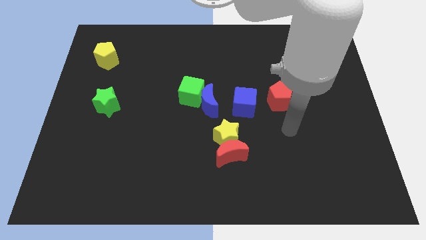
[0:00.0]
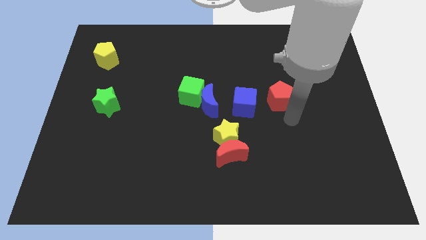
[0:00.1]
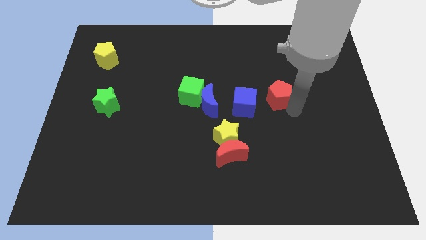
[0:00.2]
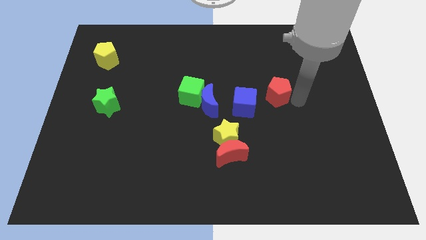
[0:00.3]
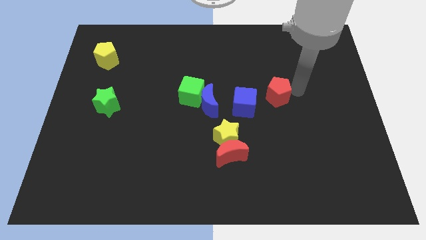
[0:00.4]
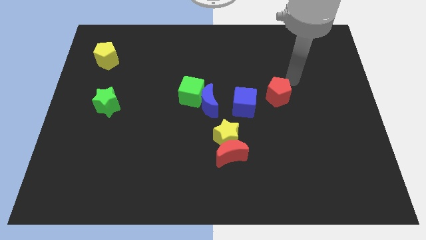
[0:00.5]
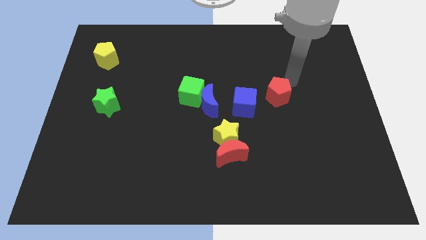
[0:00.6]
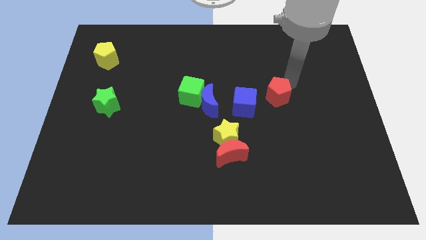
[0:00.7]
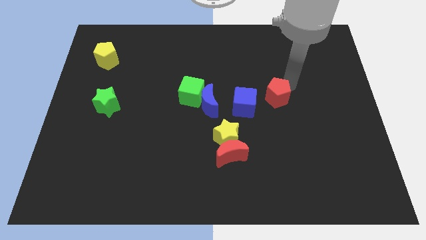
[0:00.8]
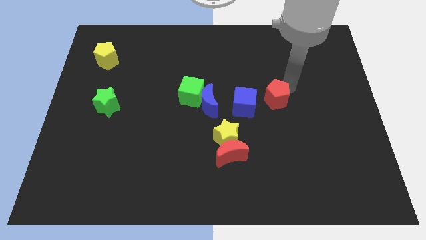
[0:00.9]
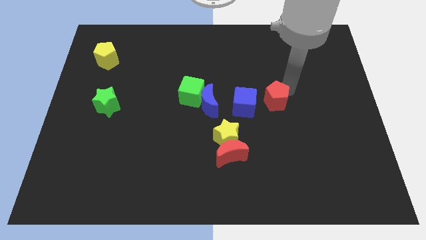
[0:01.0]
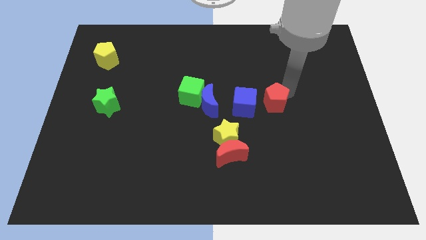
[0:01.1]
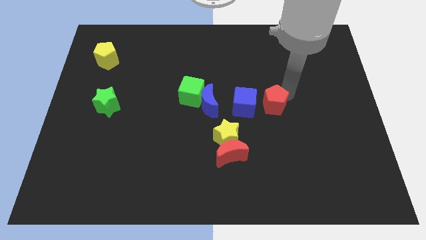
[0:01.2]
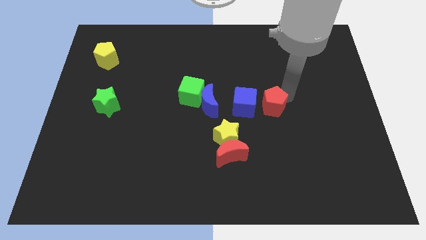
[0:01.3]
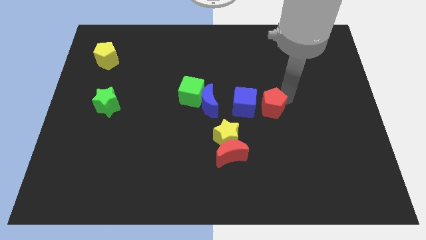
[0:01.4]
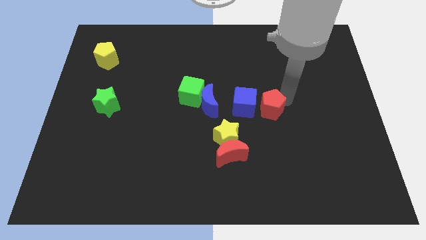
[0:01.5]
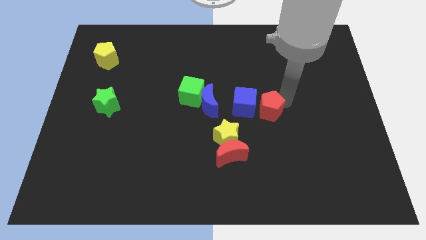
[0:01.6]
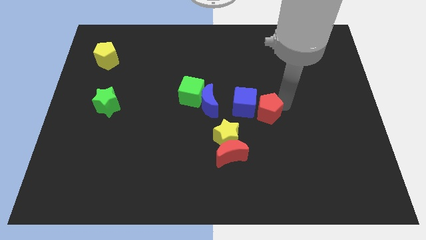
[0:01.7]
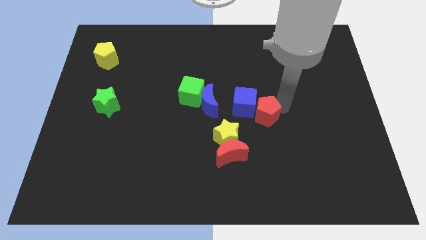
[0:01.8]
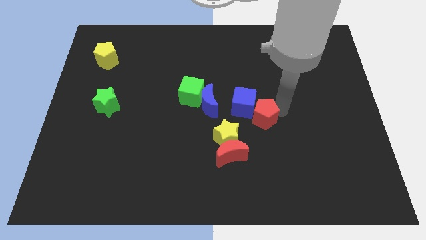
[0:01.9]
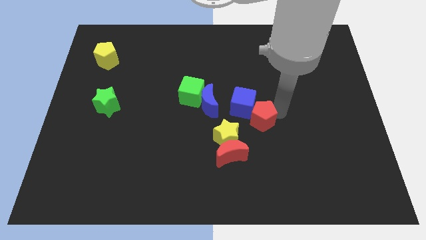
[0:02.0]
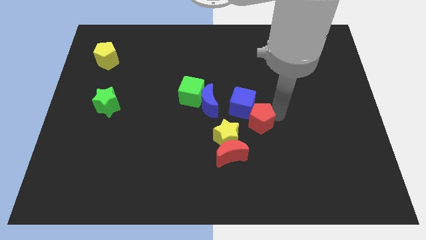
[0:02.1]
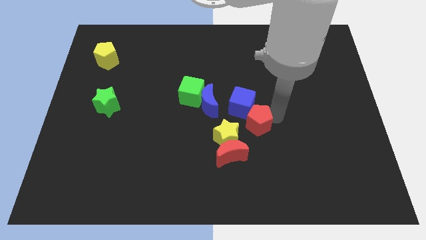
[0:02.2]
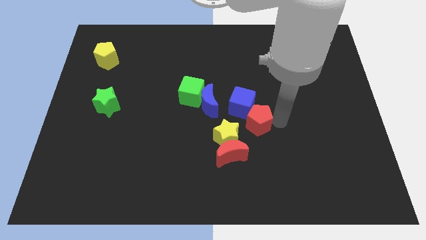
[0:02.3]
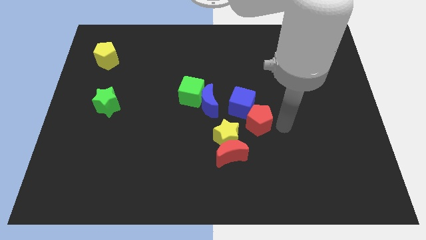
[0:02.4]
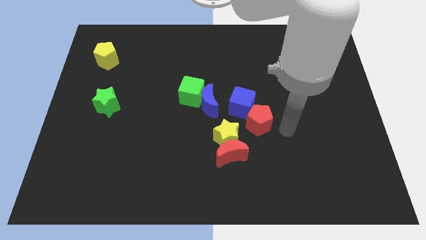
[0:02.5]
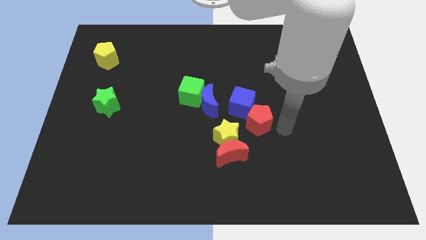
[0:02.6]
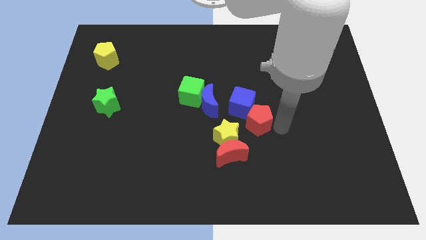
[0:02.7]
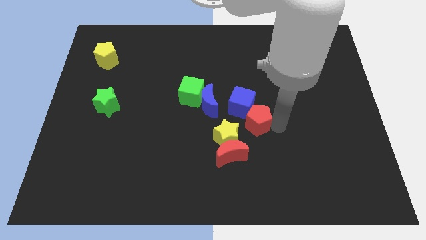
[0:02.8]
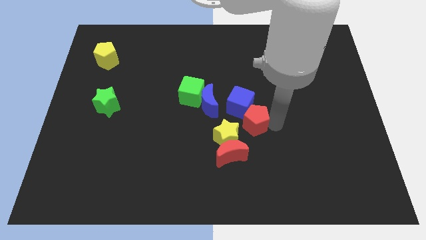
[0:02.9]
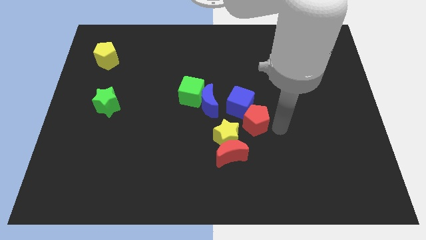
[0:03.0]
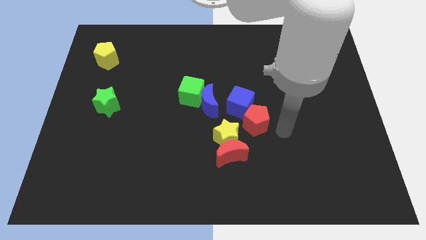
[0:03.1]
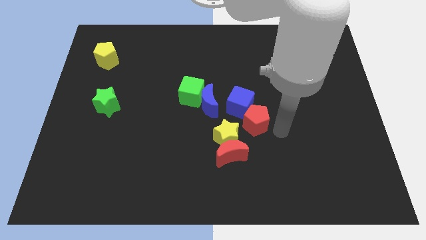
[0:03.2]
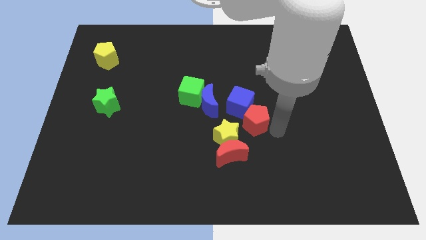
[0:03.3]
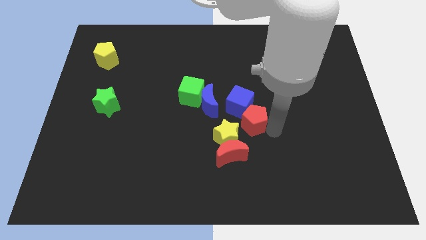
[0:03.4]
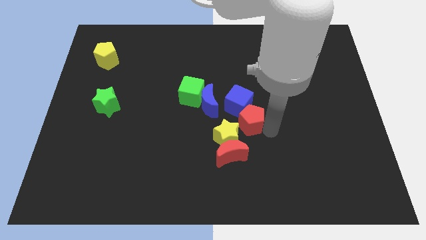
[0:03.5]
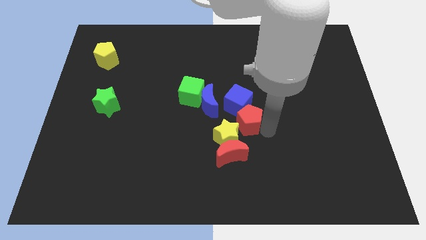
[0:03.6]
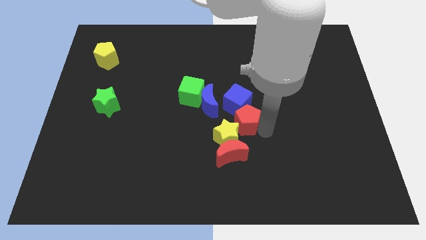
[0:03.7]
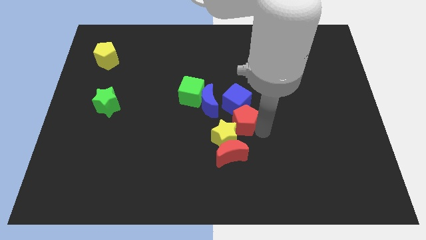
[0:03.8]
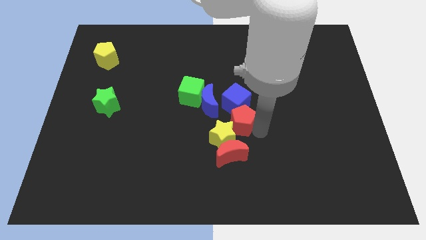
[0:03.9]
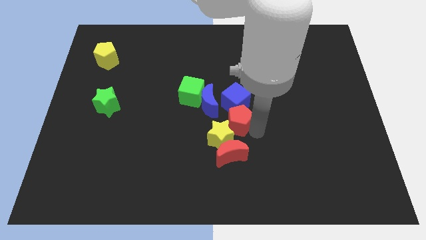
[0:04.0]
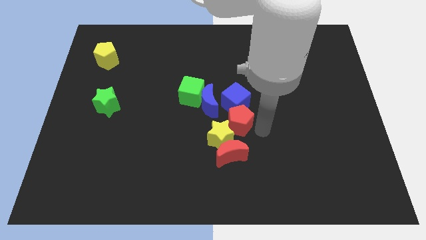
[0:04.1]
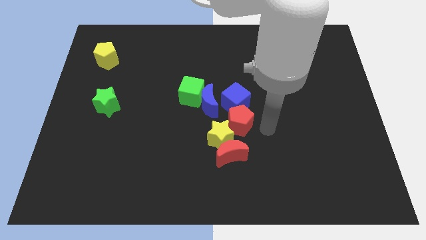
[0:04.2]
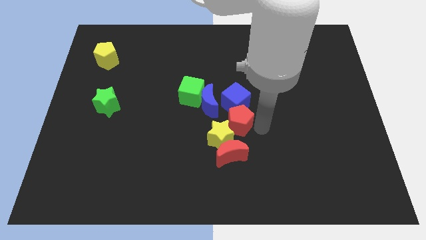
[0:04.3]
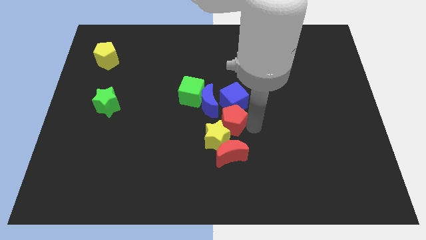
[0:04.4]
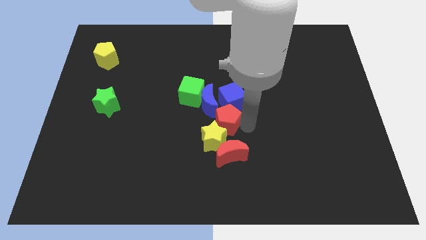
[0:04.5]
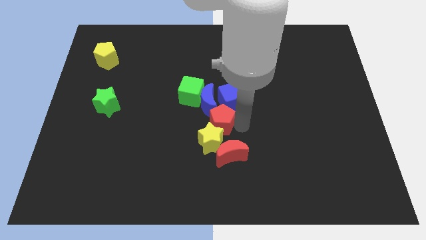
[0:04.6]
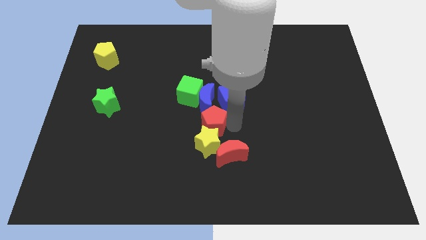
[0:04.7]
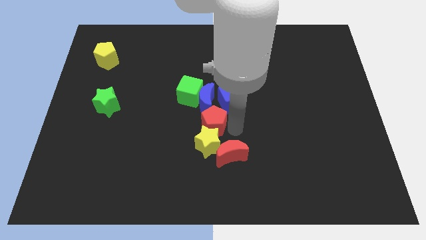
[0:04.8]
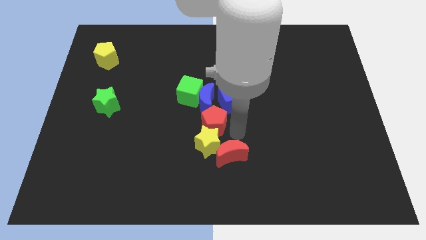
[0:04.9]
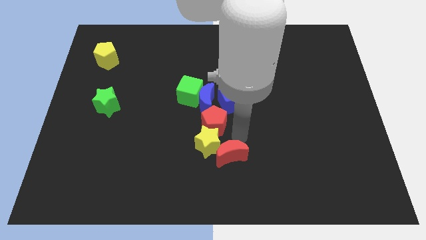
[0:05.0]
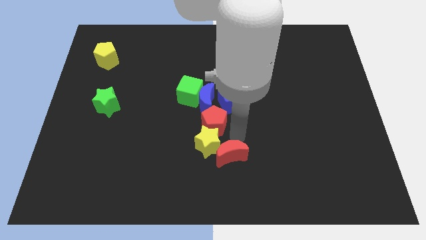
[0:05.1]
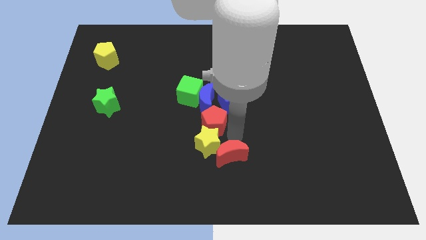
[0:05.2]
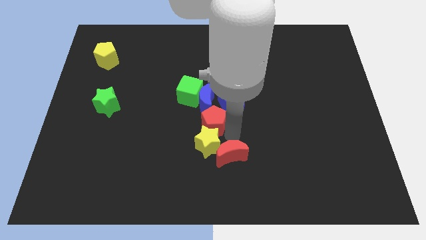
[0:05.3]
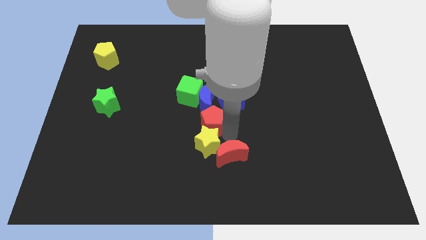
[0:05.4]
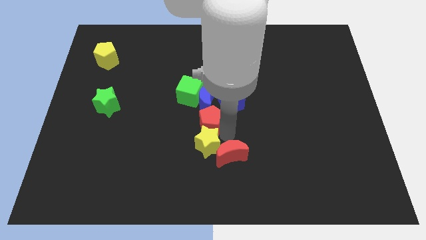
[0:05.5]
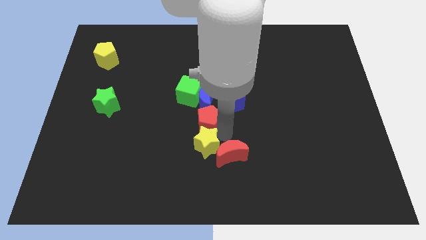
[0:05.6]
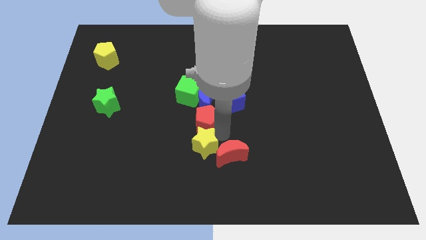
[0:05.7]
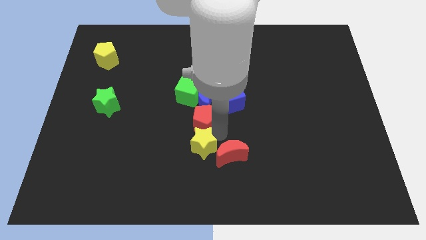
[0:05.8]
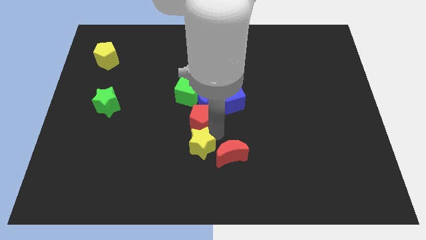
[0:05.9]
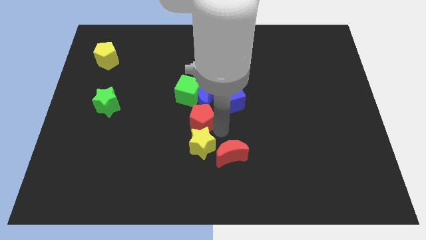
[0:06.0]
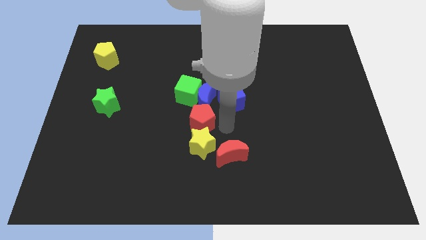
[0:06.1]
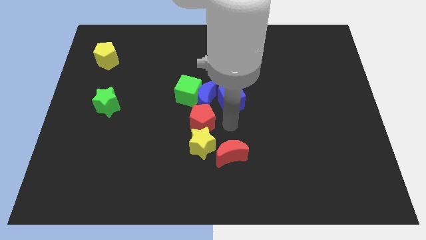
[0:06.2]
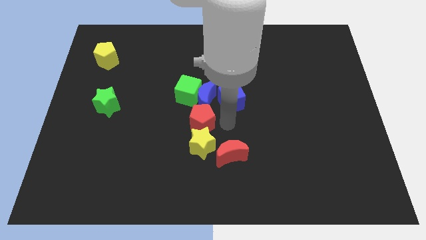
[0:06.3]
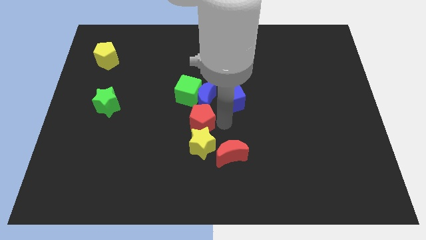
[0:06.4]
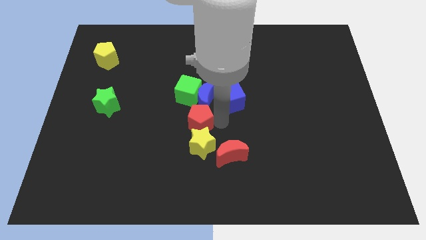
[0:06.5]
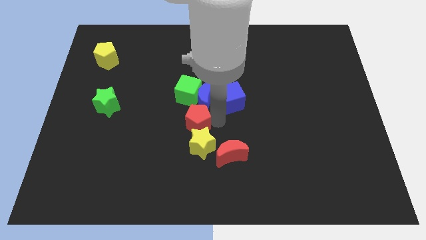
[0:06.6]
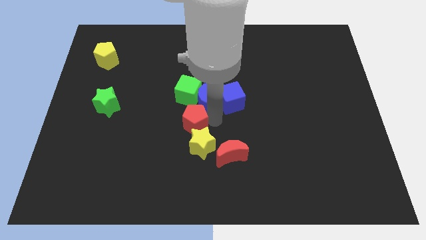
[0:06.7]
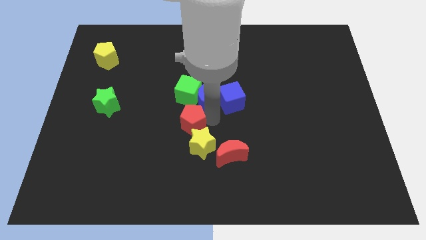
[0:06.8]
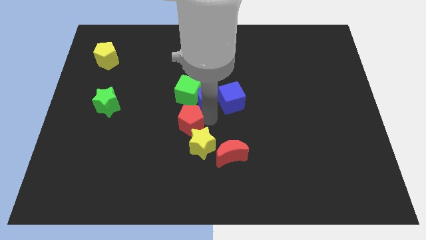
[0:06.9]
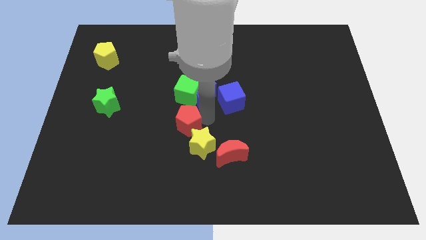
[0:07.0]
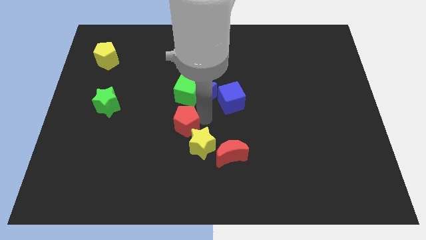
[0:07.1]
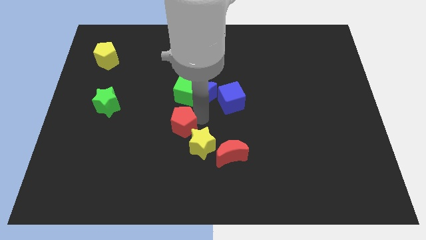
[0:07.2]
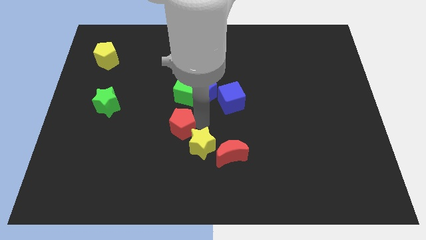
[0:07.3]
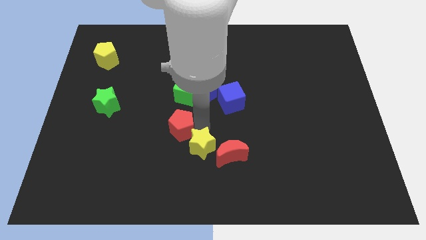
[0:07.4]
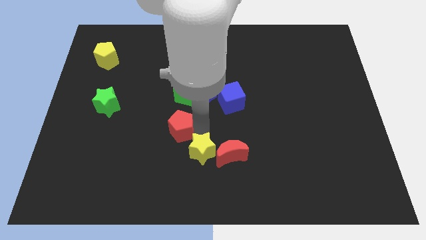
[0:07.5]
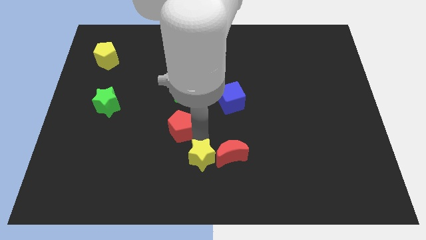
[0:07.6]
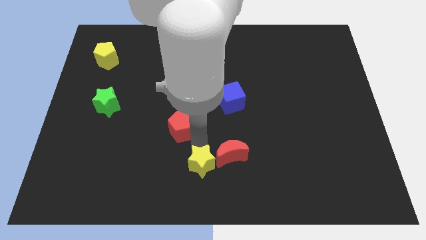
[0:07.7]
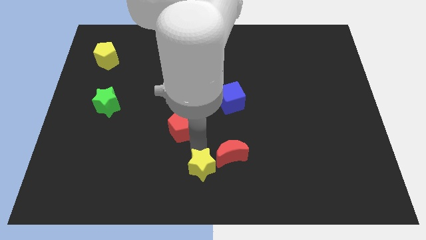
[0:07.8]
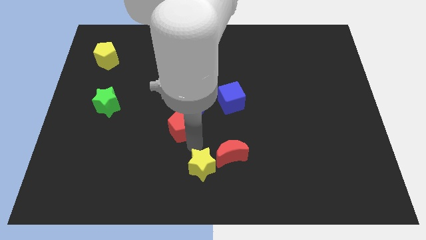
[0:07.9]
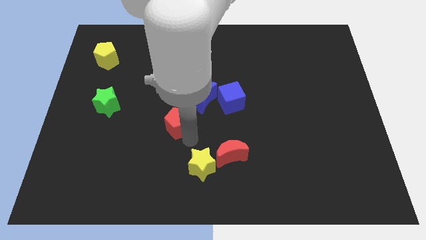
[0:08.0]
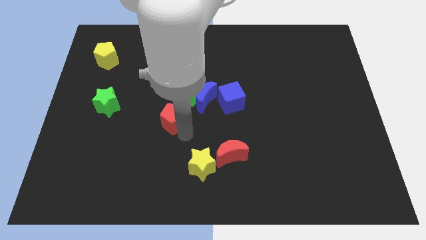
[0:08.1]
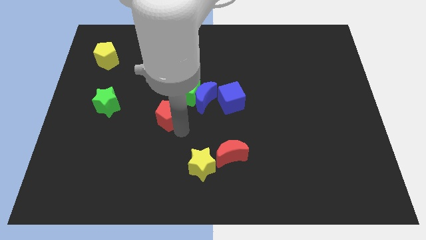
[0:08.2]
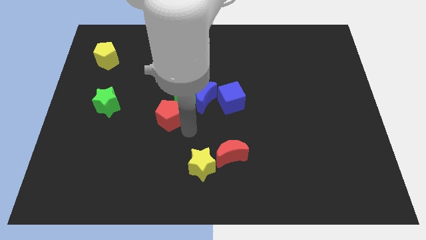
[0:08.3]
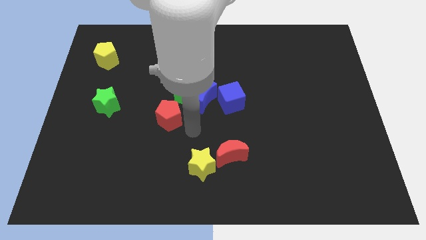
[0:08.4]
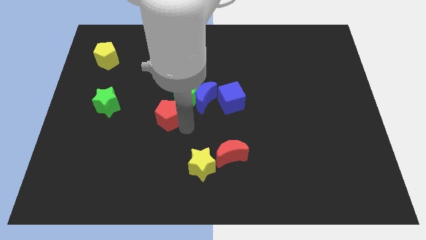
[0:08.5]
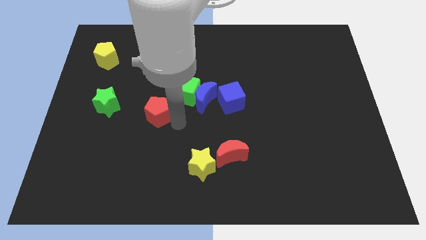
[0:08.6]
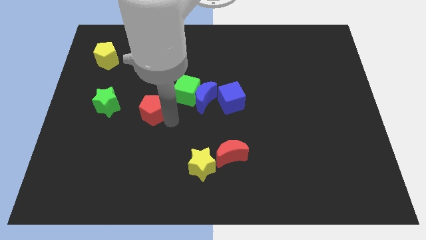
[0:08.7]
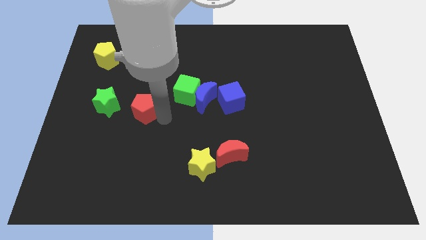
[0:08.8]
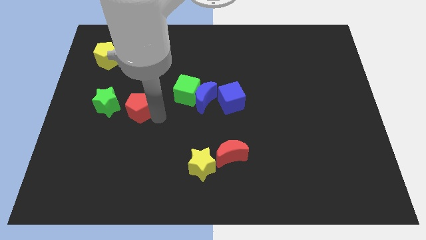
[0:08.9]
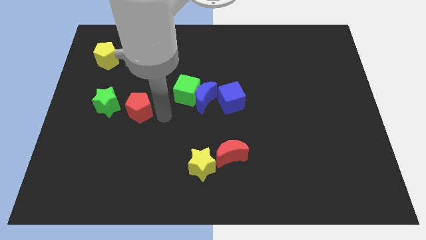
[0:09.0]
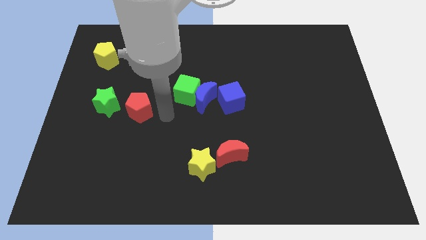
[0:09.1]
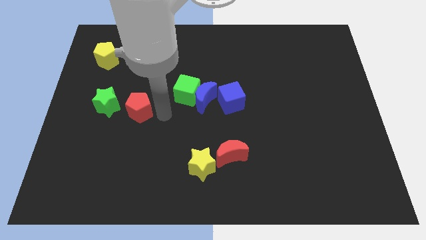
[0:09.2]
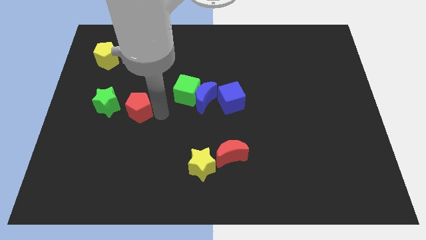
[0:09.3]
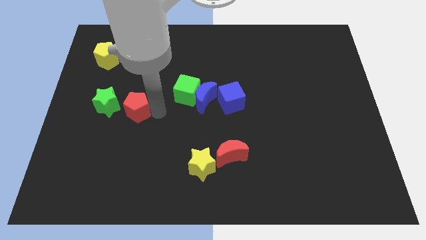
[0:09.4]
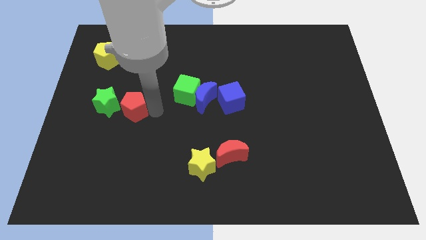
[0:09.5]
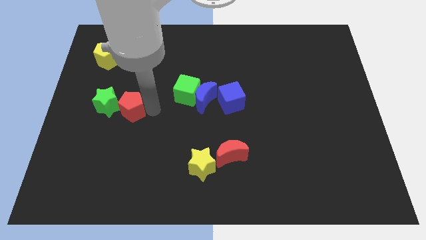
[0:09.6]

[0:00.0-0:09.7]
move the red pentagon to the green star
